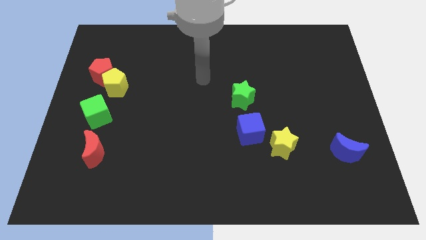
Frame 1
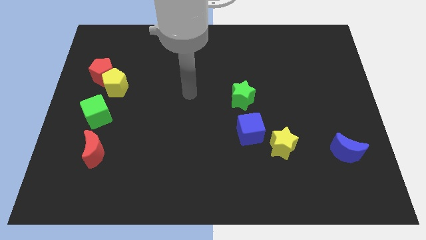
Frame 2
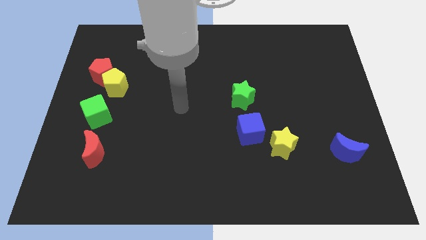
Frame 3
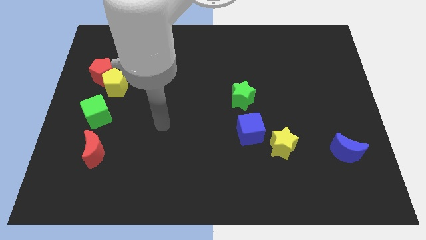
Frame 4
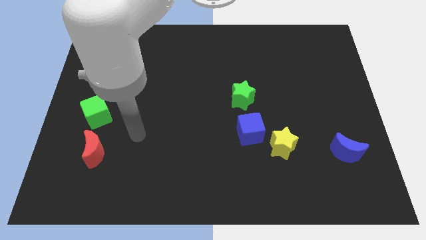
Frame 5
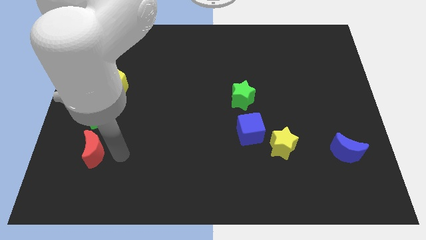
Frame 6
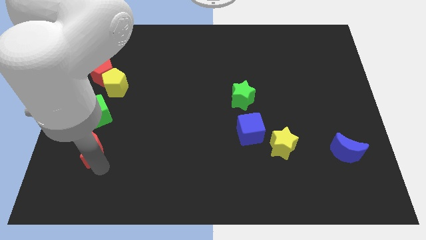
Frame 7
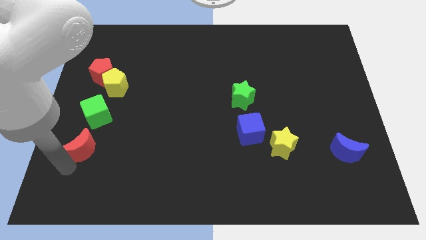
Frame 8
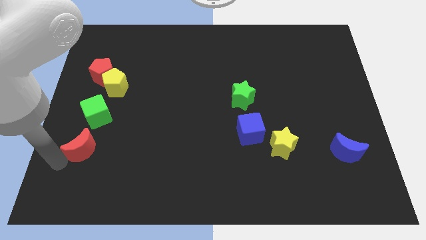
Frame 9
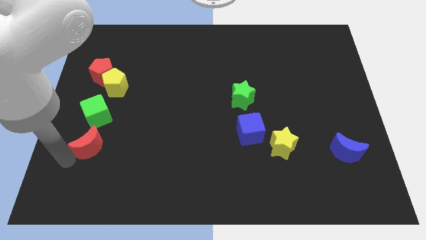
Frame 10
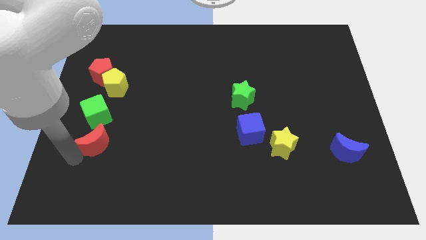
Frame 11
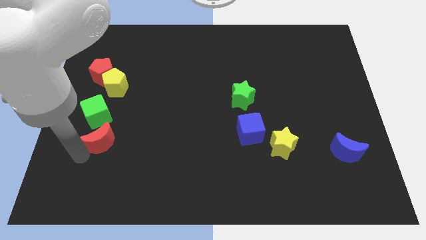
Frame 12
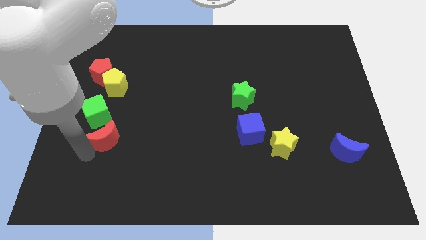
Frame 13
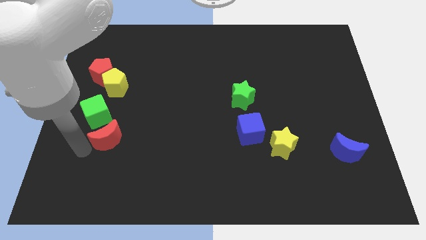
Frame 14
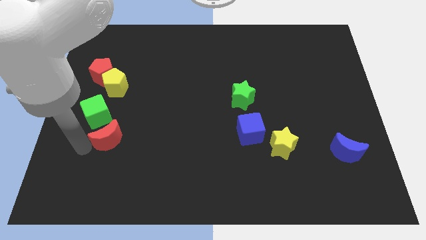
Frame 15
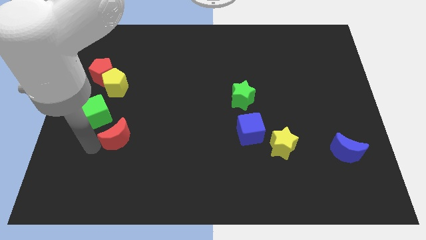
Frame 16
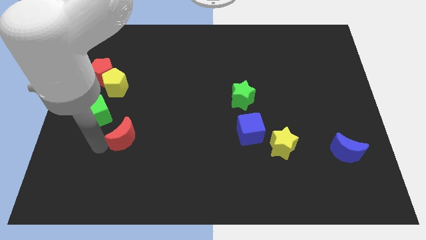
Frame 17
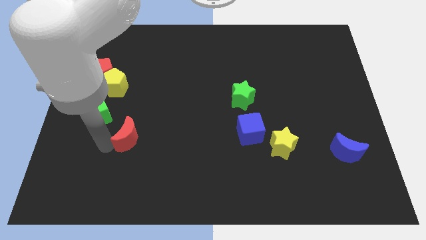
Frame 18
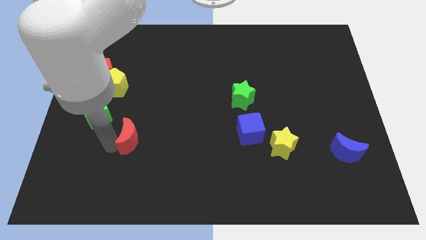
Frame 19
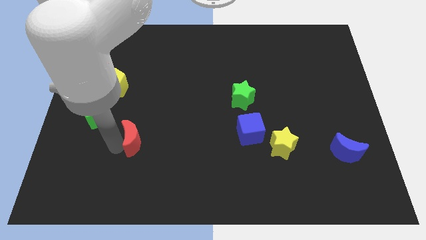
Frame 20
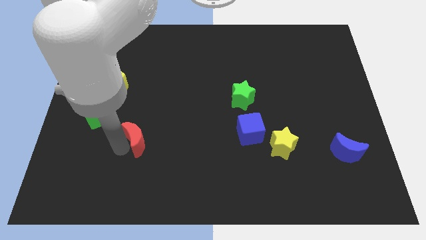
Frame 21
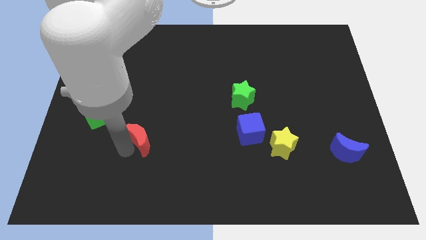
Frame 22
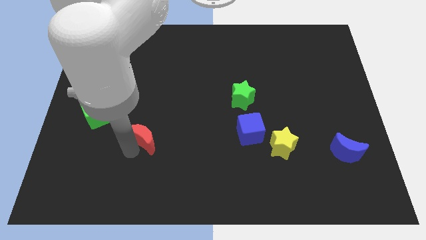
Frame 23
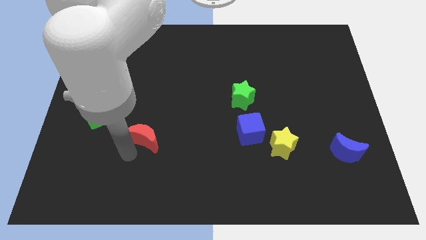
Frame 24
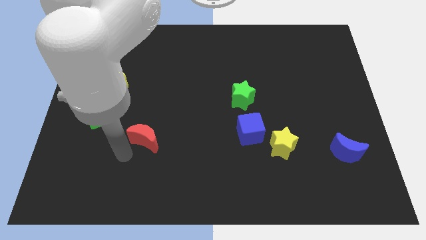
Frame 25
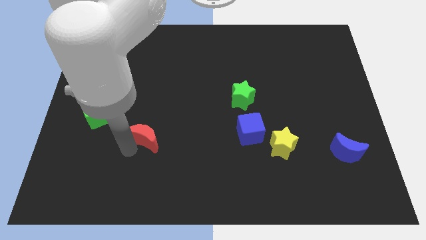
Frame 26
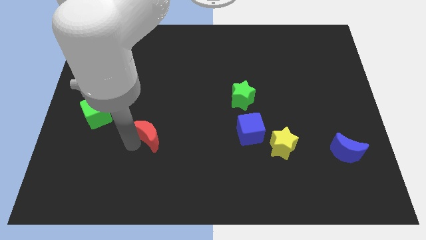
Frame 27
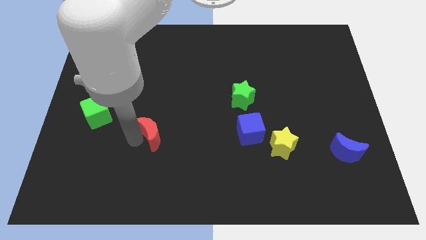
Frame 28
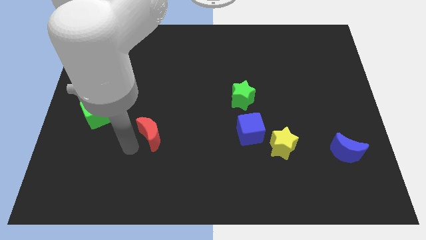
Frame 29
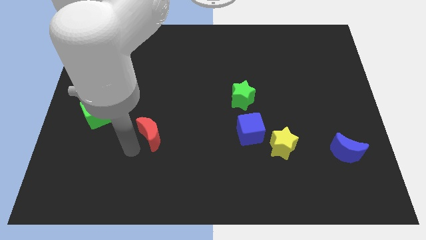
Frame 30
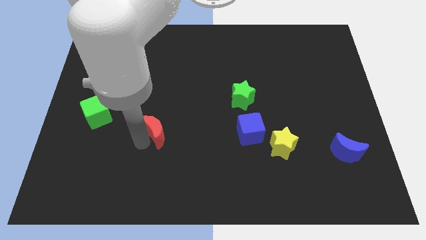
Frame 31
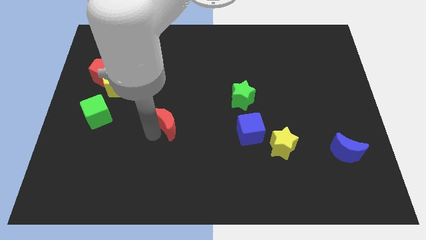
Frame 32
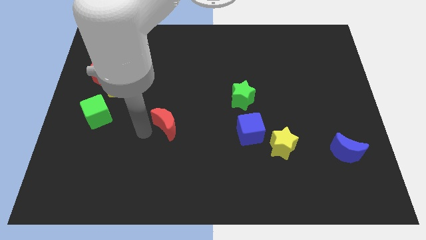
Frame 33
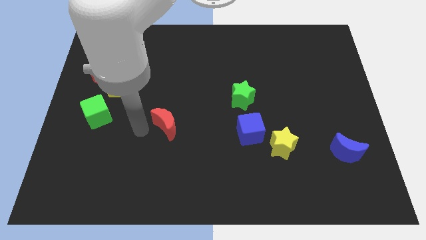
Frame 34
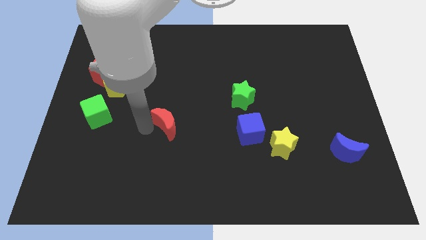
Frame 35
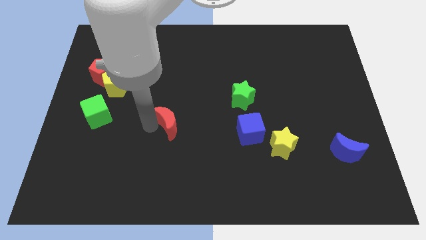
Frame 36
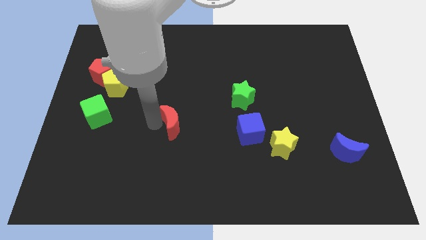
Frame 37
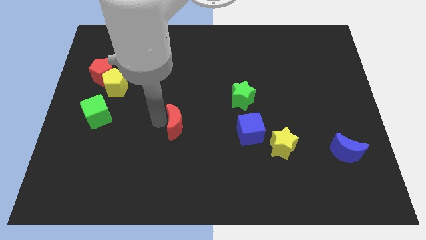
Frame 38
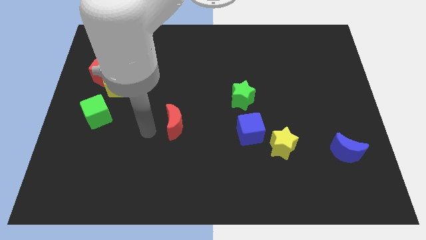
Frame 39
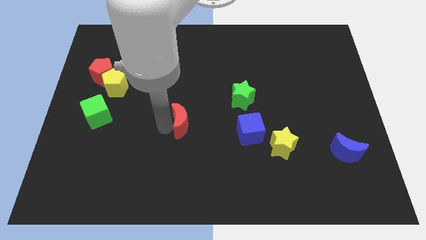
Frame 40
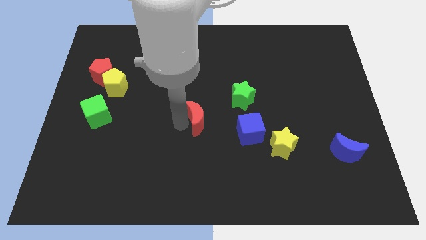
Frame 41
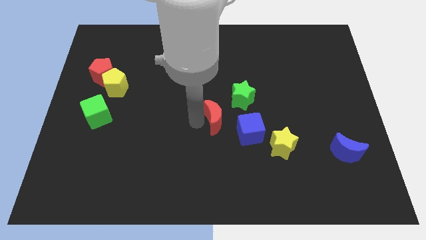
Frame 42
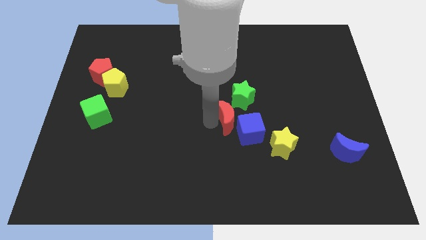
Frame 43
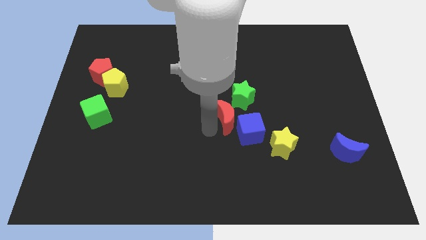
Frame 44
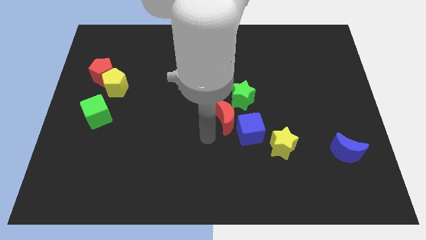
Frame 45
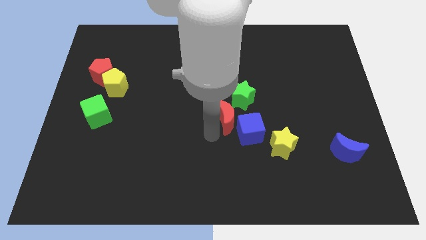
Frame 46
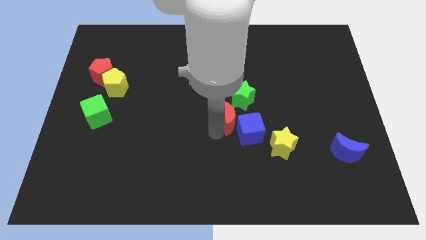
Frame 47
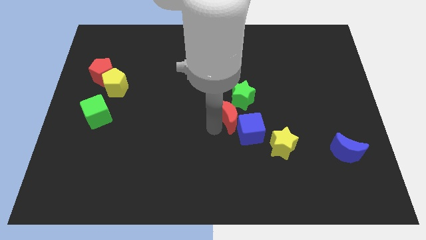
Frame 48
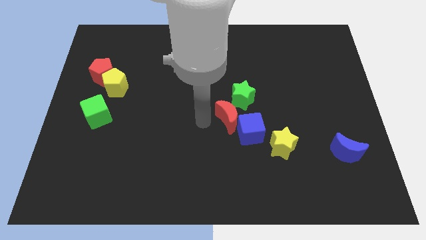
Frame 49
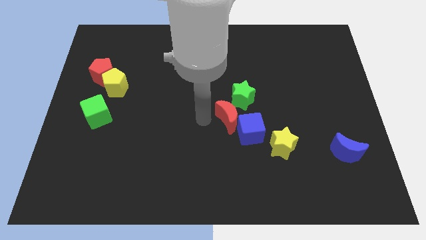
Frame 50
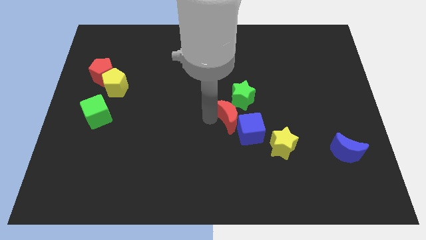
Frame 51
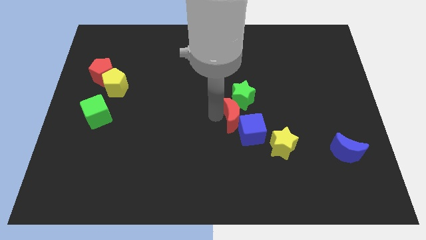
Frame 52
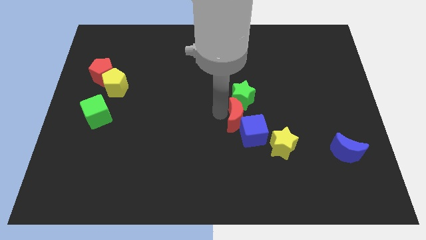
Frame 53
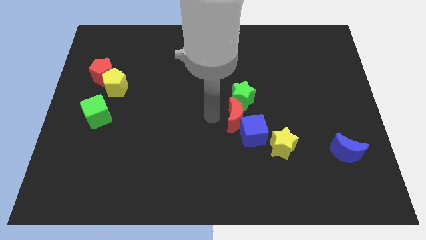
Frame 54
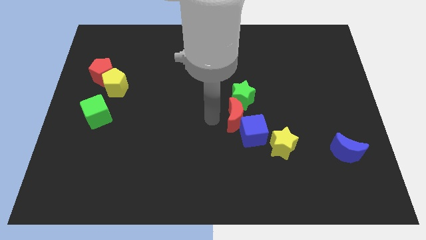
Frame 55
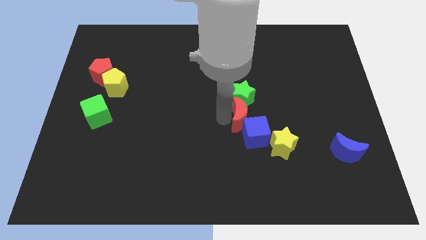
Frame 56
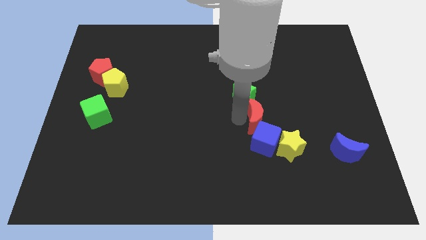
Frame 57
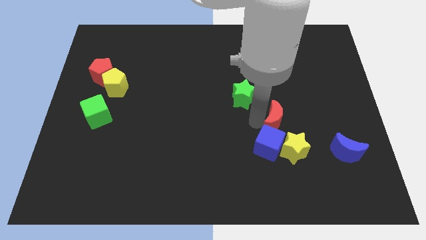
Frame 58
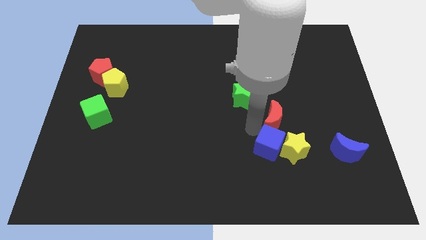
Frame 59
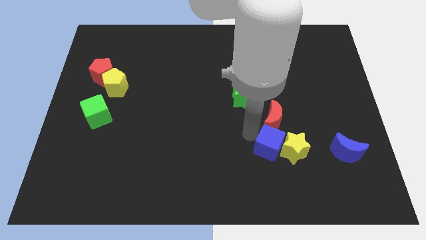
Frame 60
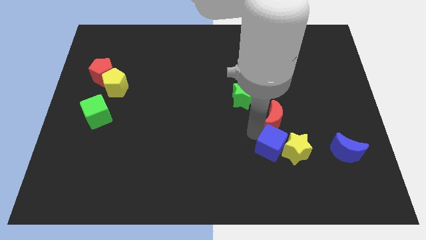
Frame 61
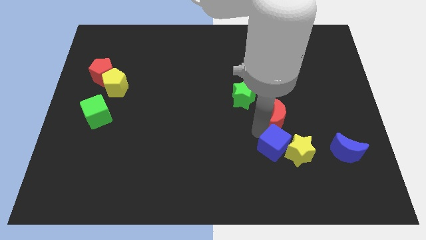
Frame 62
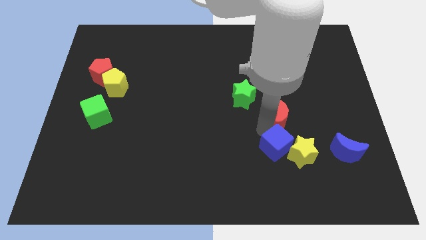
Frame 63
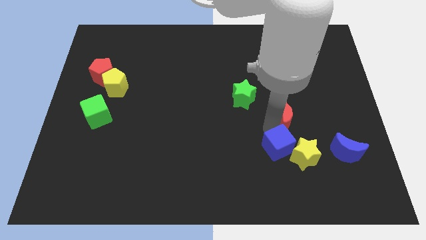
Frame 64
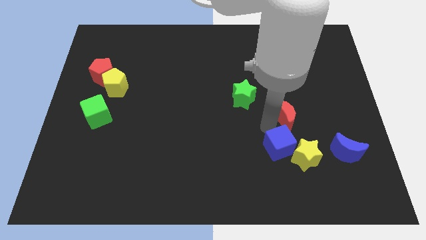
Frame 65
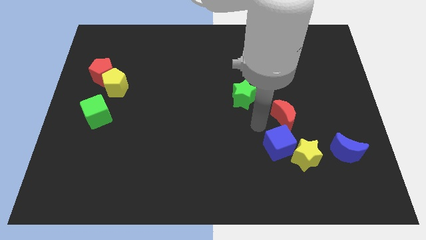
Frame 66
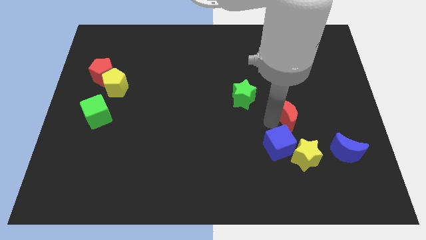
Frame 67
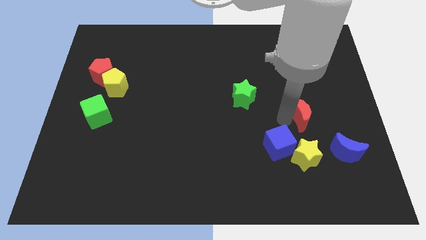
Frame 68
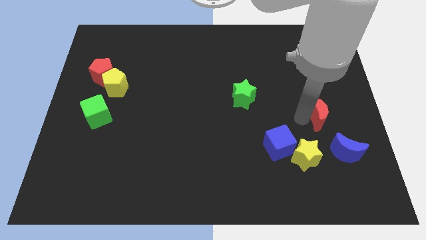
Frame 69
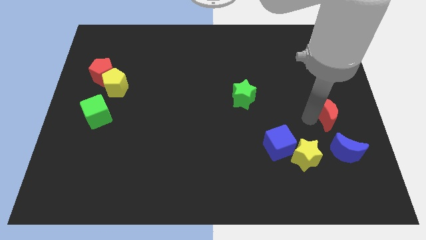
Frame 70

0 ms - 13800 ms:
move the red moon to the right side of the board

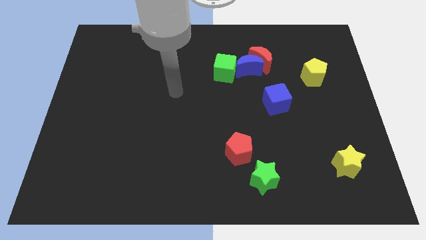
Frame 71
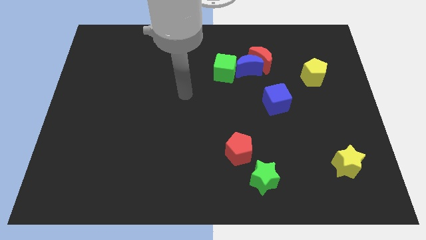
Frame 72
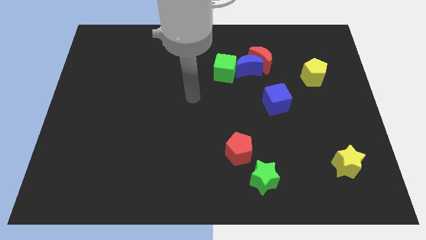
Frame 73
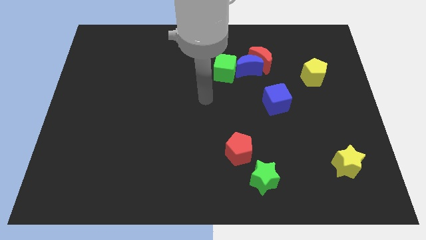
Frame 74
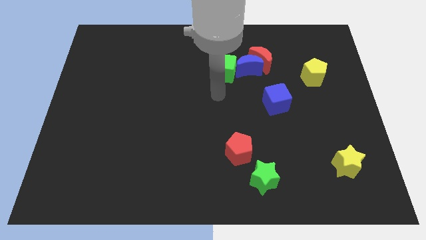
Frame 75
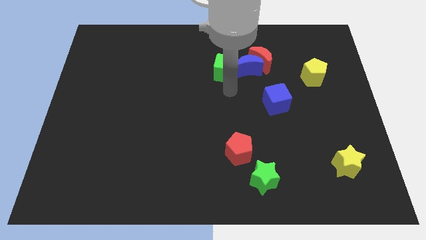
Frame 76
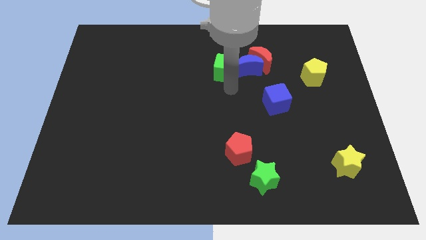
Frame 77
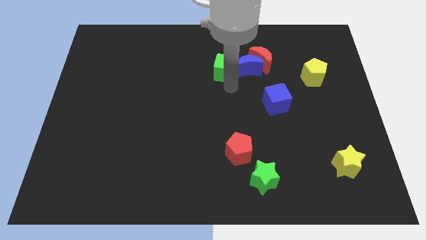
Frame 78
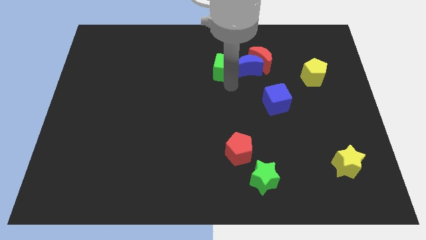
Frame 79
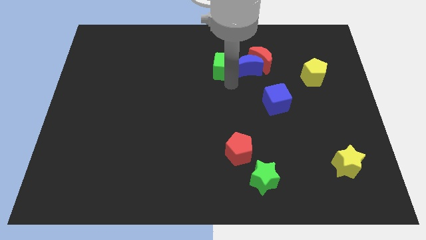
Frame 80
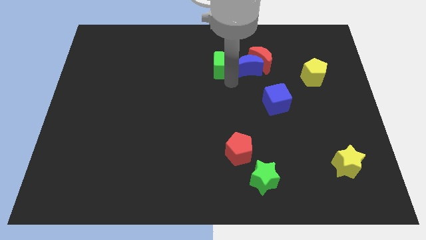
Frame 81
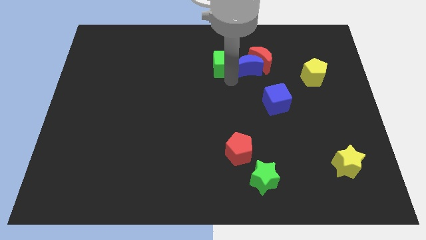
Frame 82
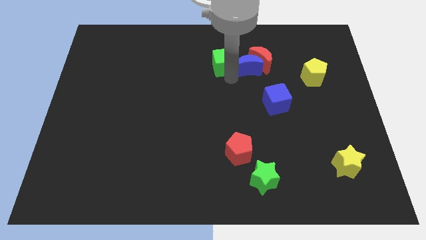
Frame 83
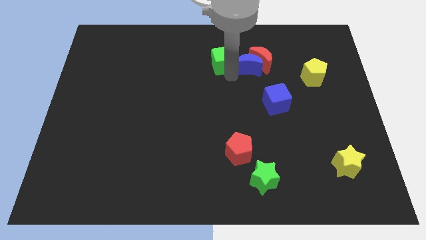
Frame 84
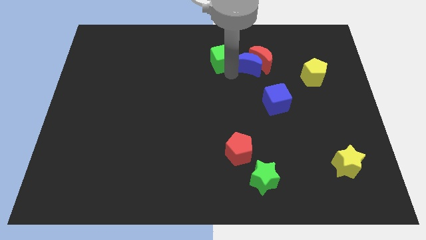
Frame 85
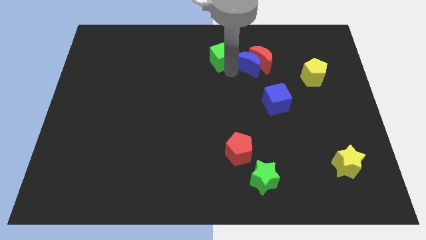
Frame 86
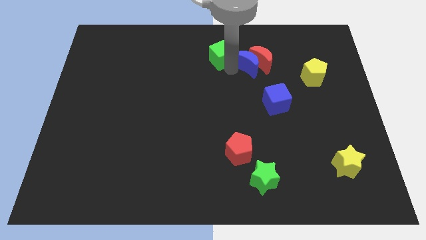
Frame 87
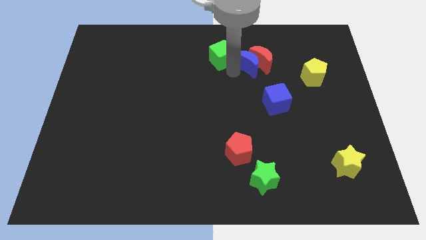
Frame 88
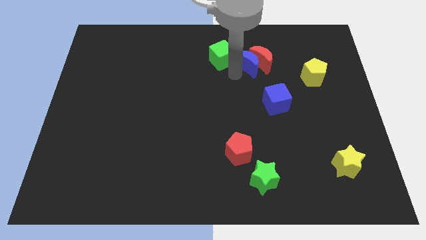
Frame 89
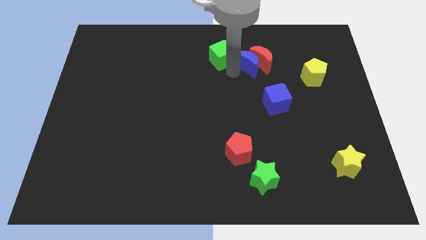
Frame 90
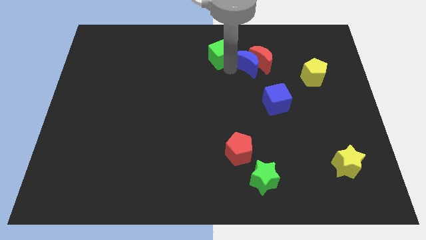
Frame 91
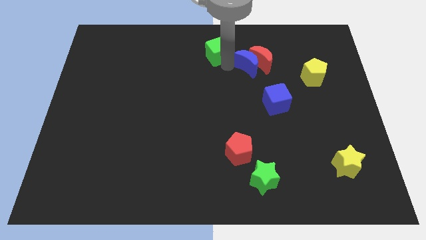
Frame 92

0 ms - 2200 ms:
slide the green cube to the top side
